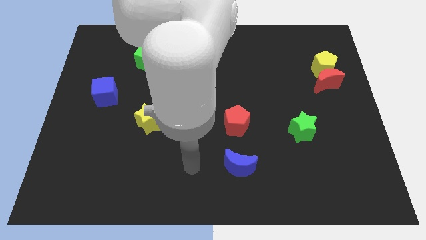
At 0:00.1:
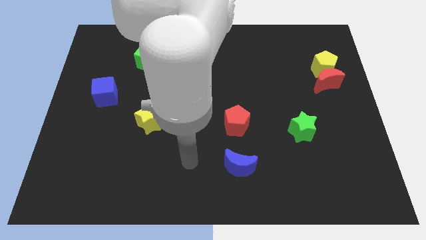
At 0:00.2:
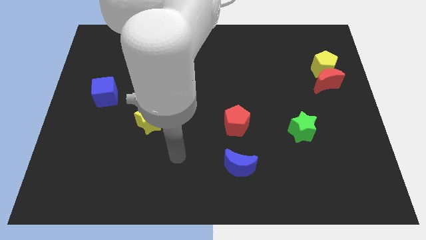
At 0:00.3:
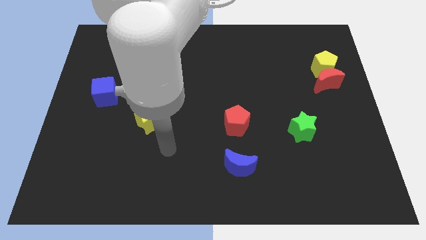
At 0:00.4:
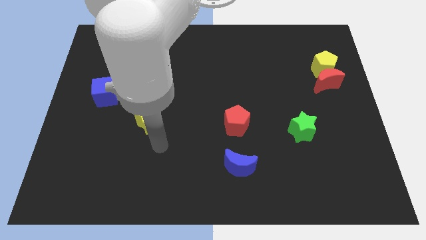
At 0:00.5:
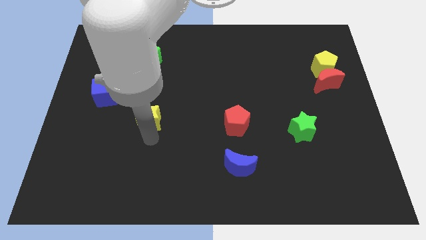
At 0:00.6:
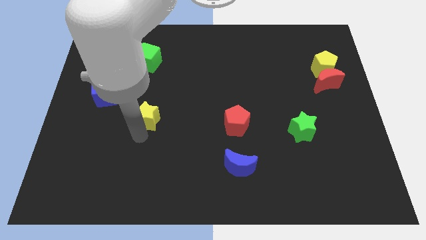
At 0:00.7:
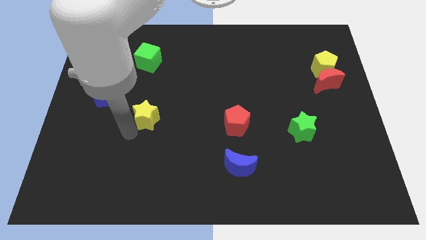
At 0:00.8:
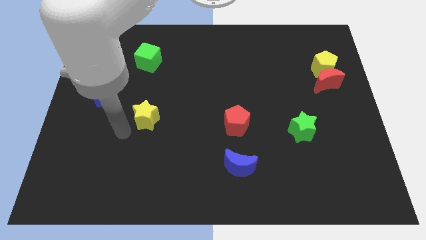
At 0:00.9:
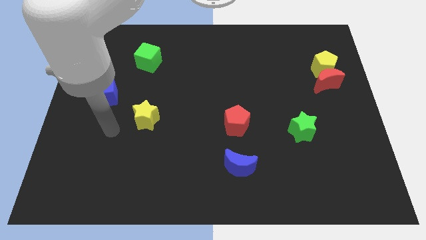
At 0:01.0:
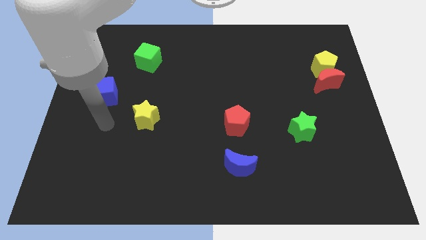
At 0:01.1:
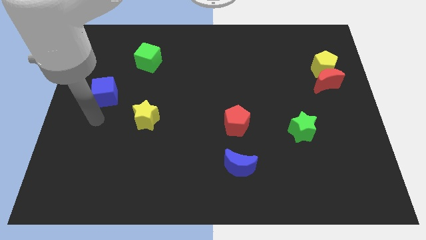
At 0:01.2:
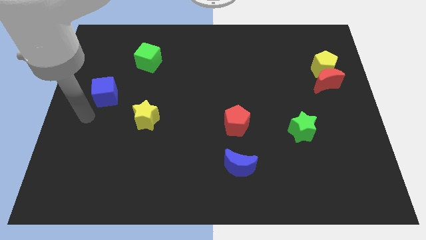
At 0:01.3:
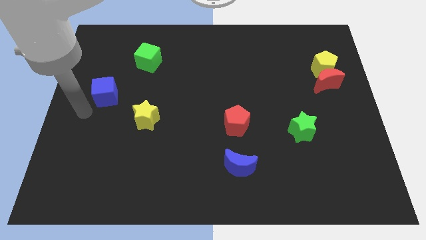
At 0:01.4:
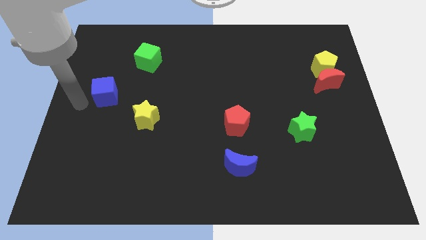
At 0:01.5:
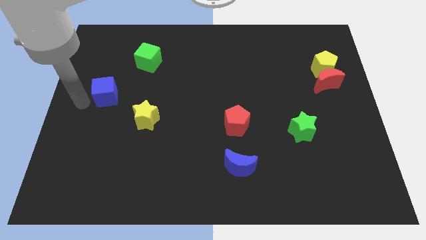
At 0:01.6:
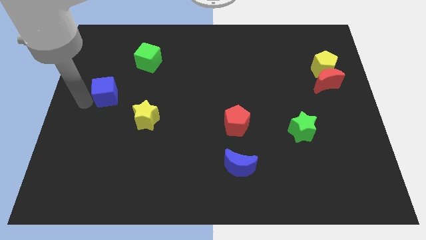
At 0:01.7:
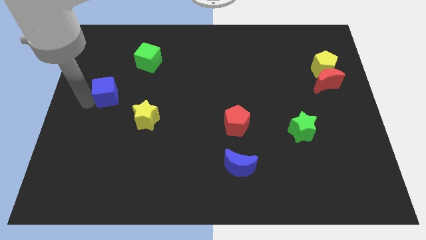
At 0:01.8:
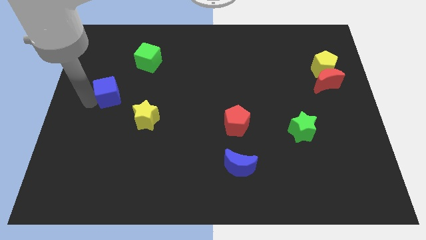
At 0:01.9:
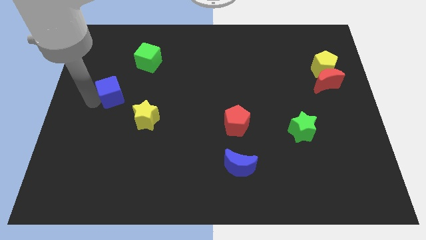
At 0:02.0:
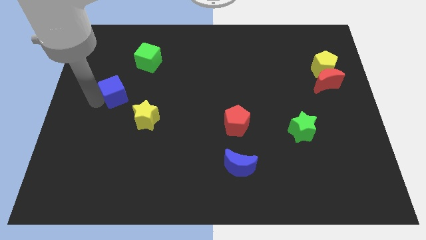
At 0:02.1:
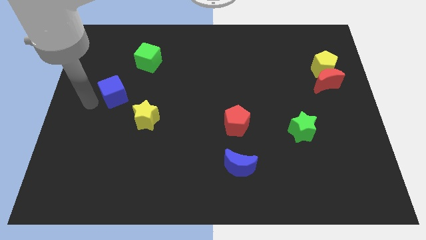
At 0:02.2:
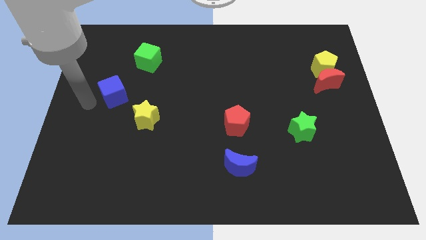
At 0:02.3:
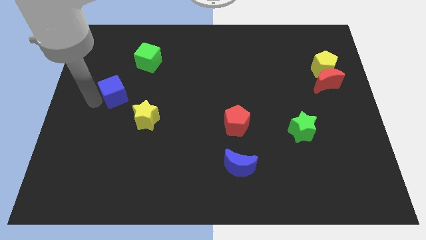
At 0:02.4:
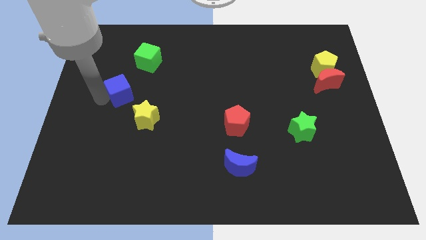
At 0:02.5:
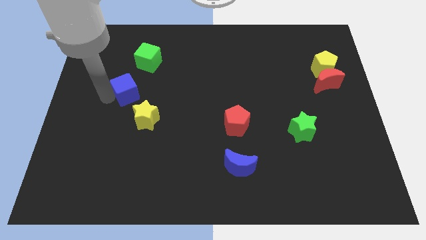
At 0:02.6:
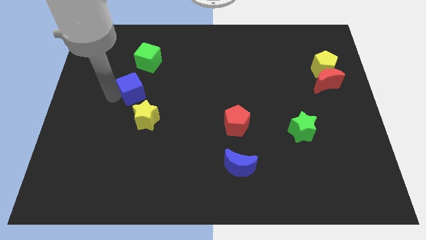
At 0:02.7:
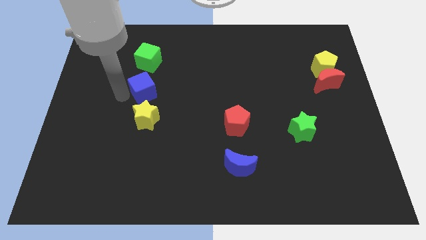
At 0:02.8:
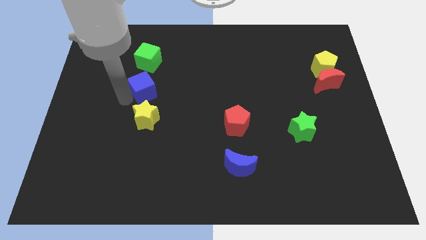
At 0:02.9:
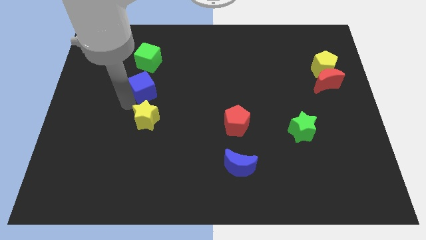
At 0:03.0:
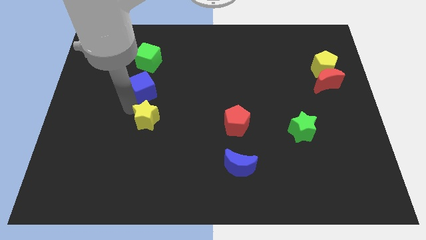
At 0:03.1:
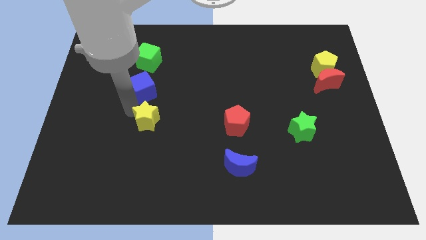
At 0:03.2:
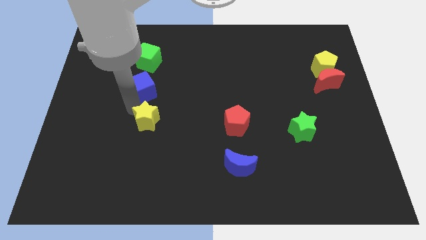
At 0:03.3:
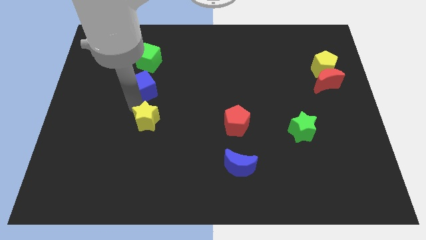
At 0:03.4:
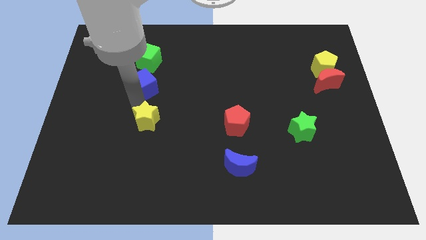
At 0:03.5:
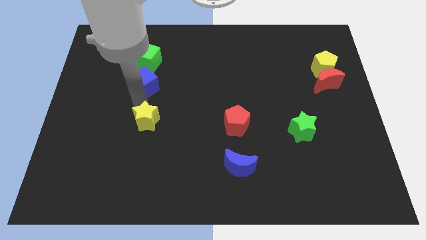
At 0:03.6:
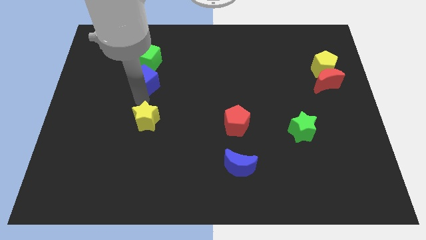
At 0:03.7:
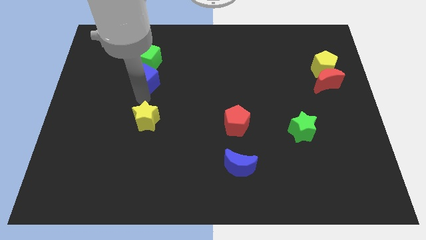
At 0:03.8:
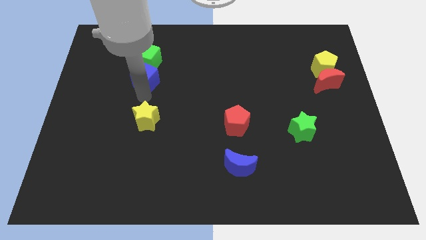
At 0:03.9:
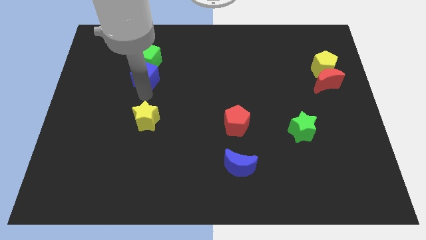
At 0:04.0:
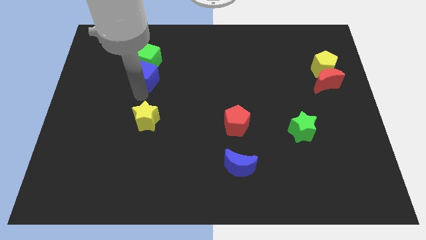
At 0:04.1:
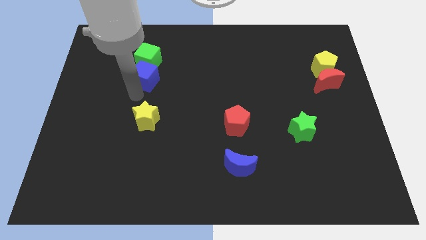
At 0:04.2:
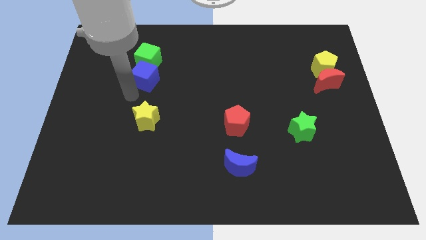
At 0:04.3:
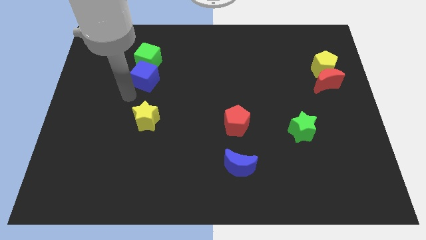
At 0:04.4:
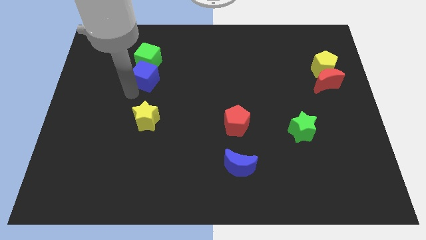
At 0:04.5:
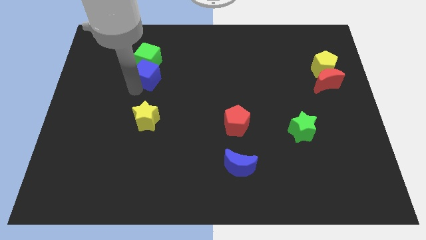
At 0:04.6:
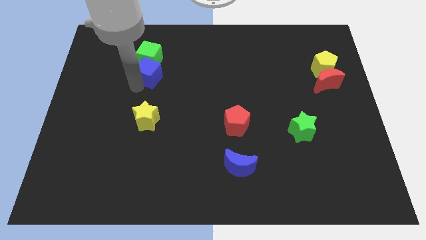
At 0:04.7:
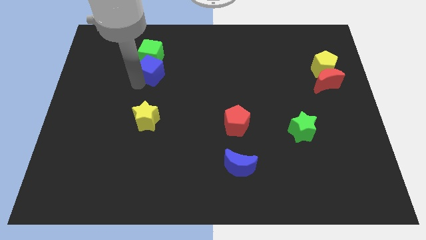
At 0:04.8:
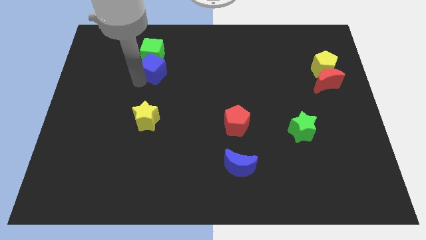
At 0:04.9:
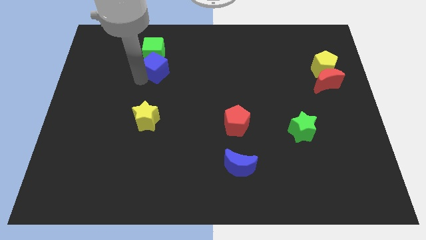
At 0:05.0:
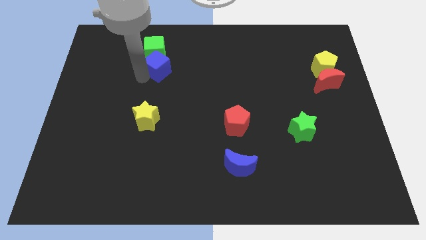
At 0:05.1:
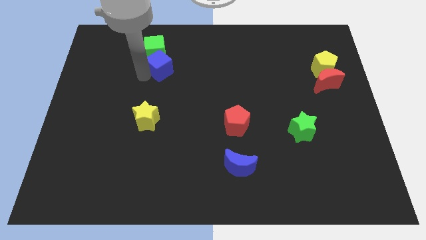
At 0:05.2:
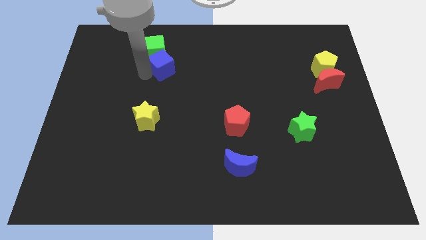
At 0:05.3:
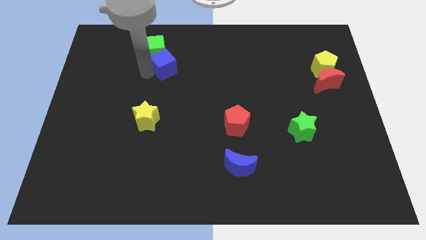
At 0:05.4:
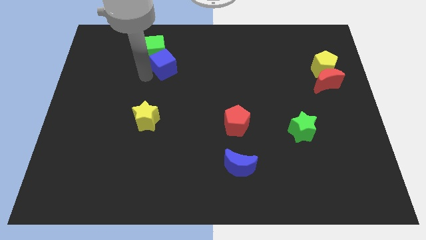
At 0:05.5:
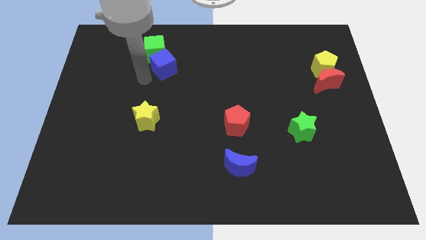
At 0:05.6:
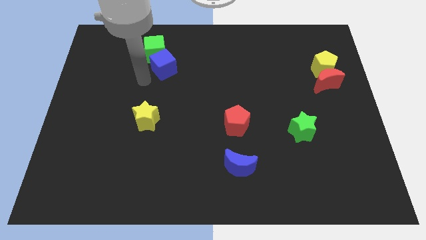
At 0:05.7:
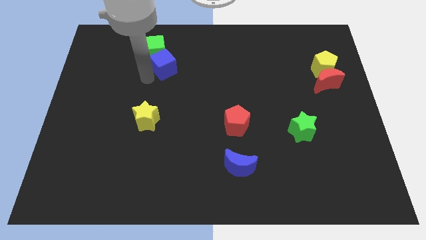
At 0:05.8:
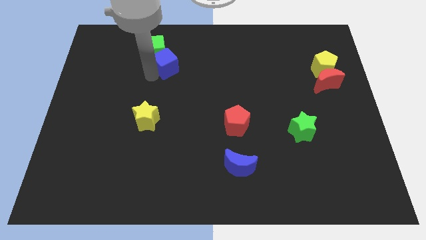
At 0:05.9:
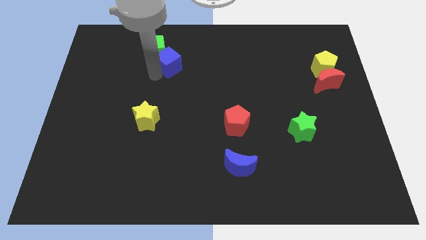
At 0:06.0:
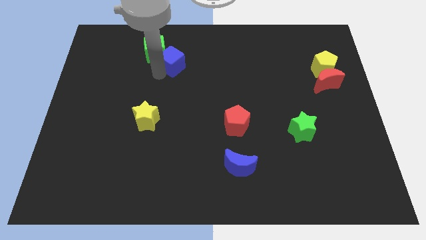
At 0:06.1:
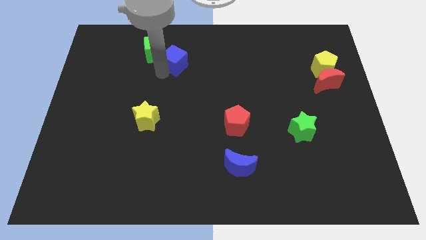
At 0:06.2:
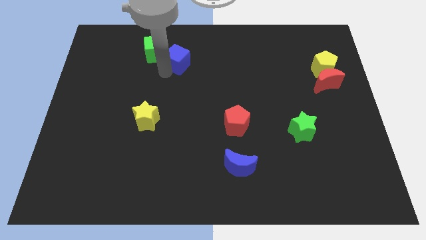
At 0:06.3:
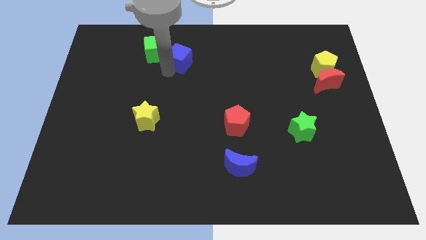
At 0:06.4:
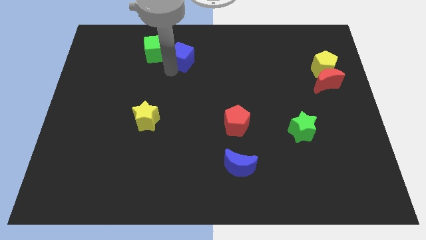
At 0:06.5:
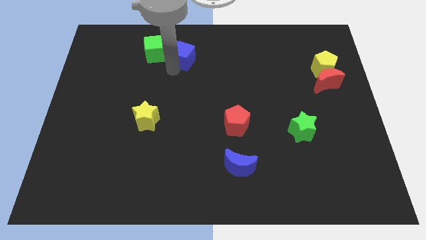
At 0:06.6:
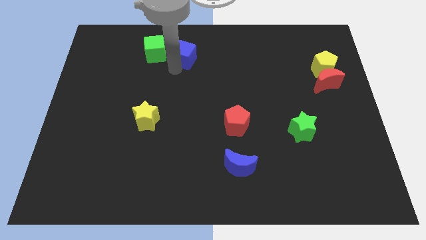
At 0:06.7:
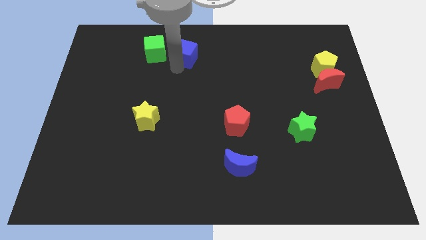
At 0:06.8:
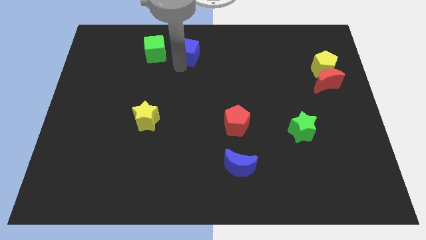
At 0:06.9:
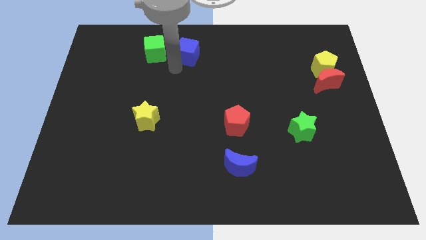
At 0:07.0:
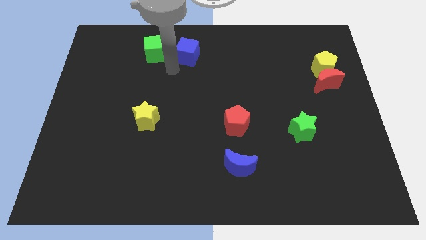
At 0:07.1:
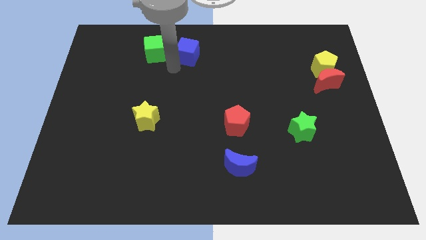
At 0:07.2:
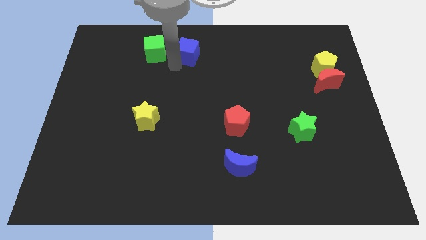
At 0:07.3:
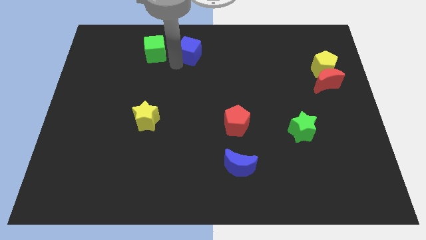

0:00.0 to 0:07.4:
move the blue cube to the top
